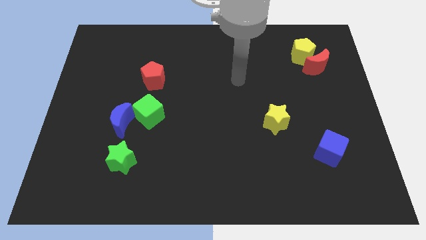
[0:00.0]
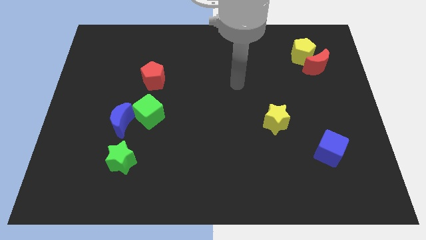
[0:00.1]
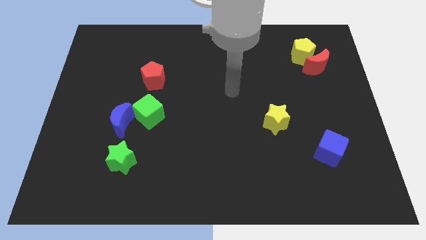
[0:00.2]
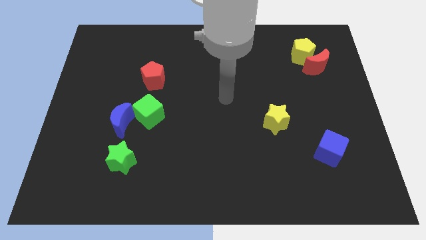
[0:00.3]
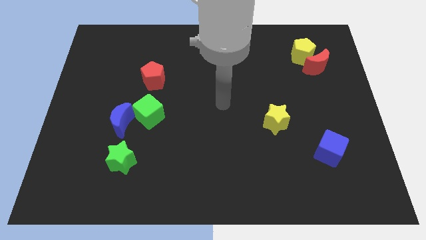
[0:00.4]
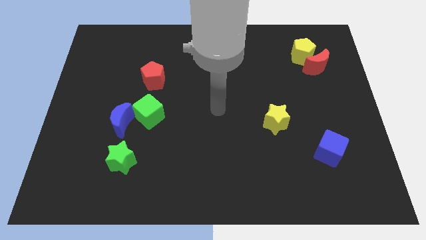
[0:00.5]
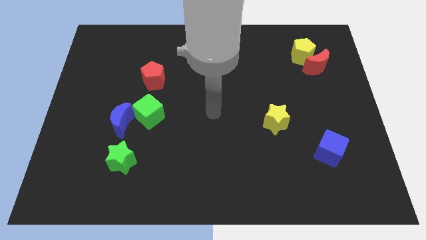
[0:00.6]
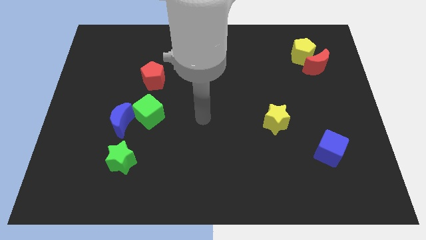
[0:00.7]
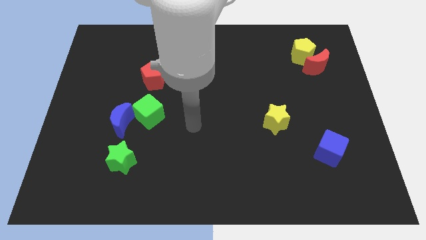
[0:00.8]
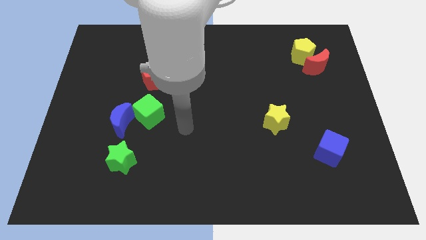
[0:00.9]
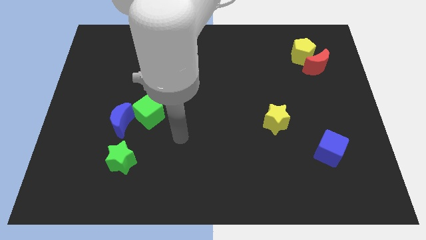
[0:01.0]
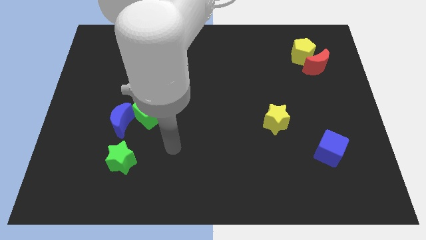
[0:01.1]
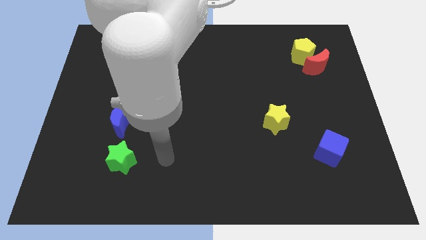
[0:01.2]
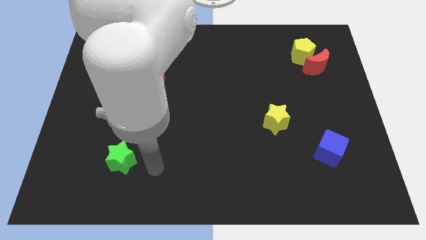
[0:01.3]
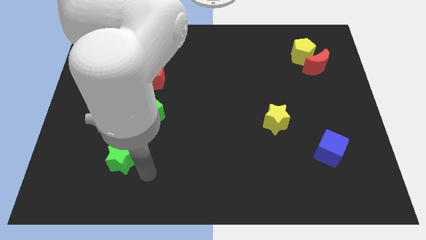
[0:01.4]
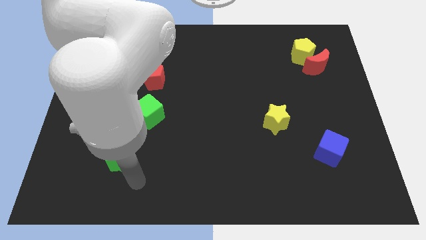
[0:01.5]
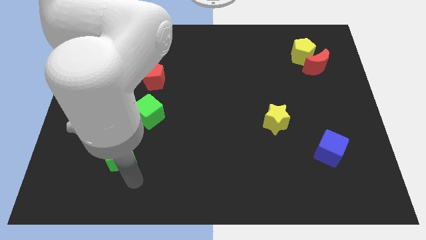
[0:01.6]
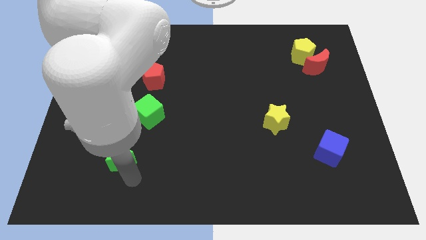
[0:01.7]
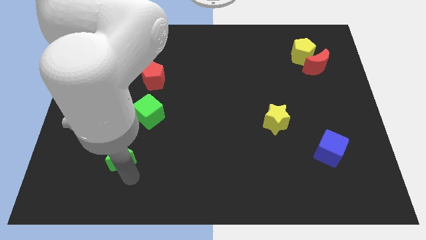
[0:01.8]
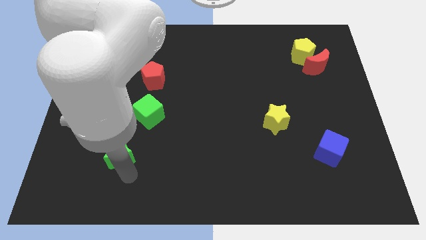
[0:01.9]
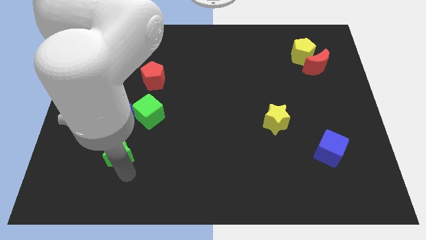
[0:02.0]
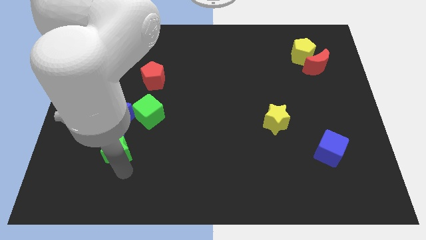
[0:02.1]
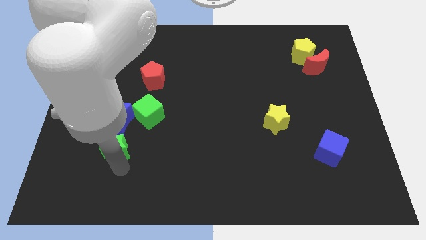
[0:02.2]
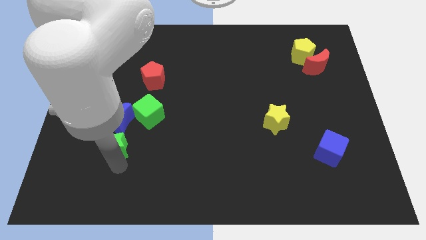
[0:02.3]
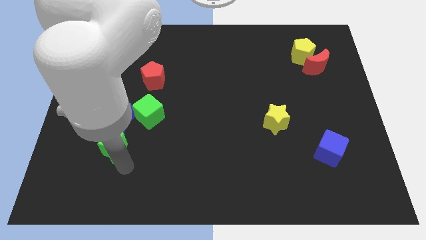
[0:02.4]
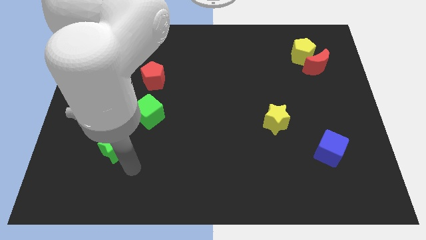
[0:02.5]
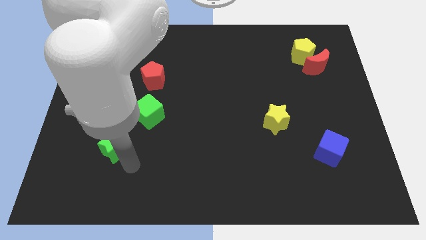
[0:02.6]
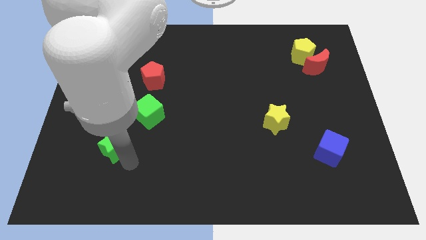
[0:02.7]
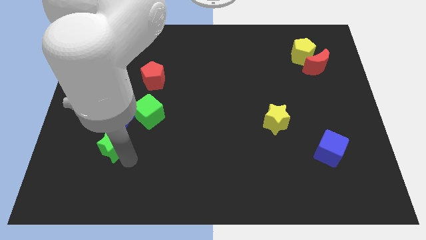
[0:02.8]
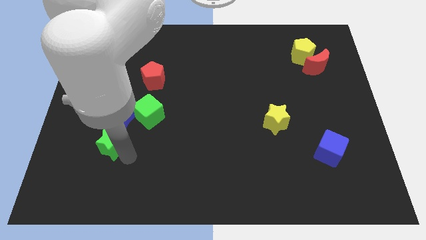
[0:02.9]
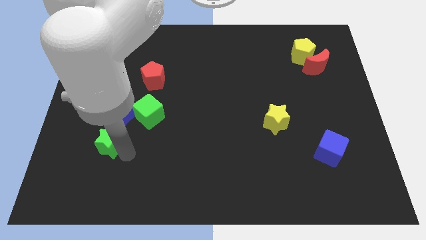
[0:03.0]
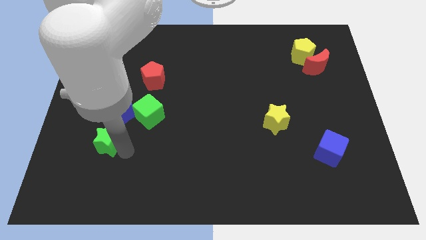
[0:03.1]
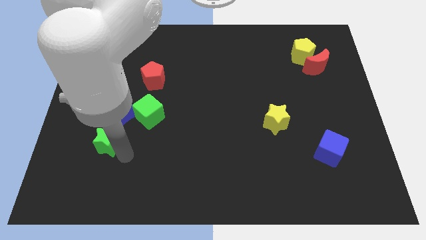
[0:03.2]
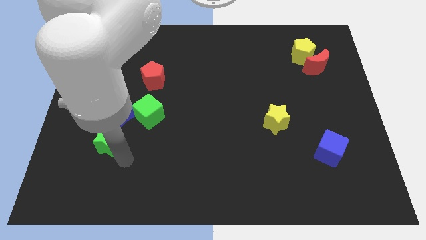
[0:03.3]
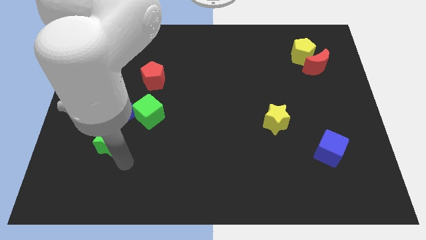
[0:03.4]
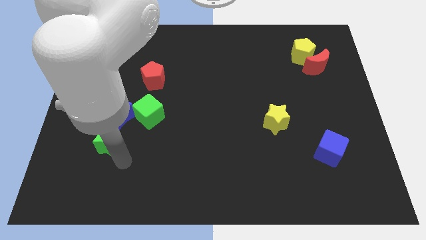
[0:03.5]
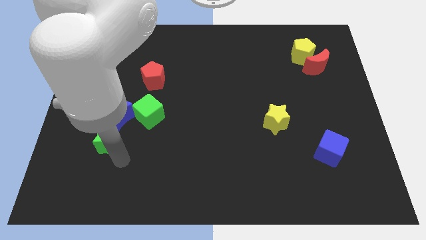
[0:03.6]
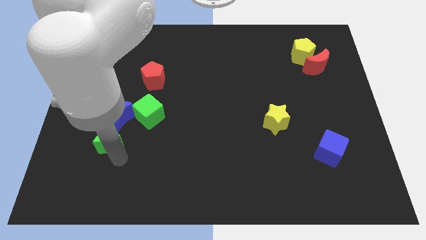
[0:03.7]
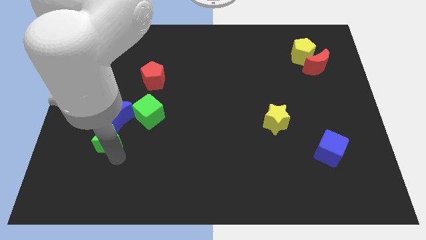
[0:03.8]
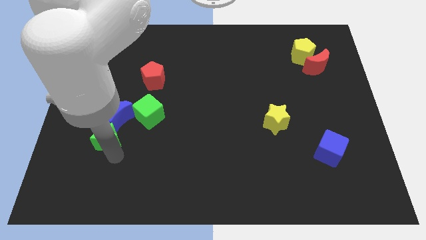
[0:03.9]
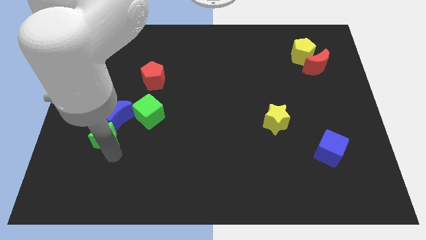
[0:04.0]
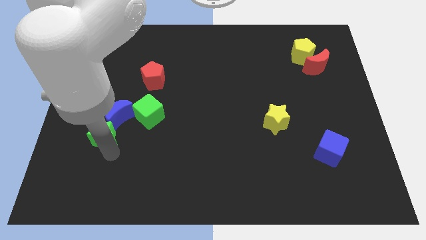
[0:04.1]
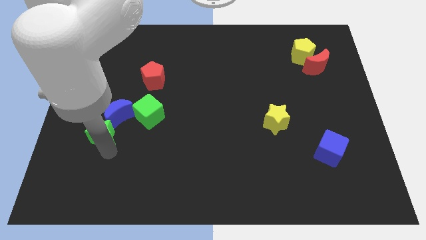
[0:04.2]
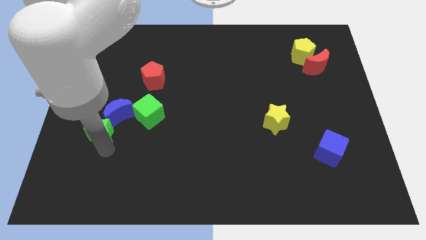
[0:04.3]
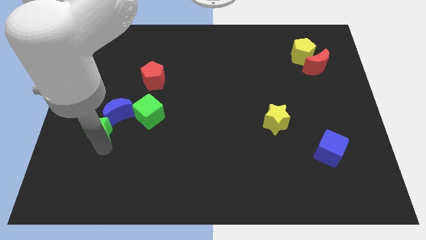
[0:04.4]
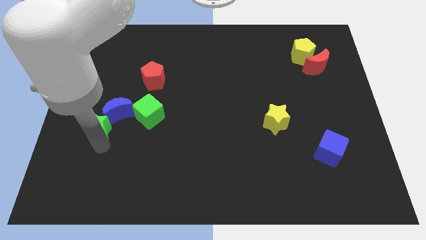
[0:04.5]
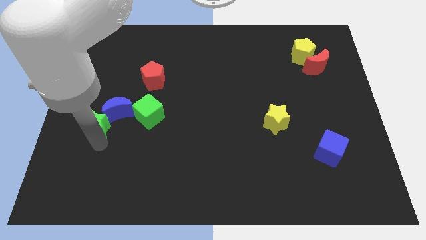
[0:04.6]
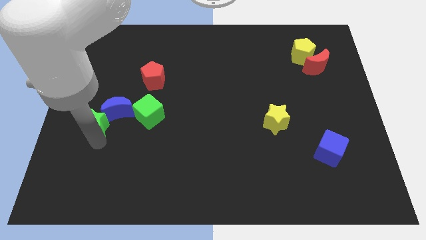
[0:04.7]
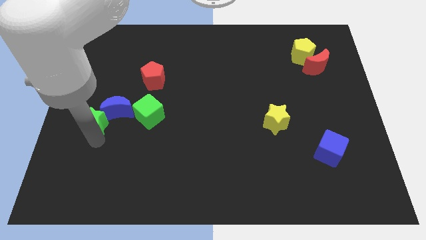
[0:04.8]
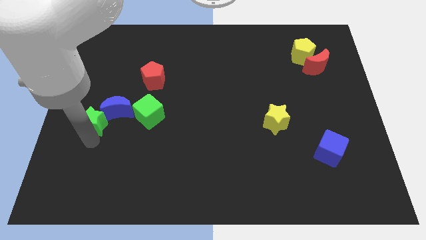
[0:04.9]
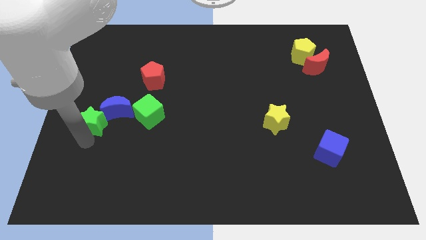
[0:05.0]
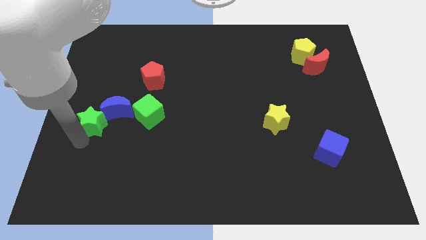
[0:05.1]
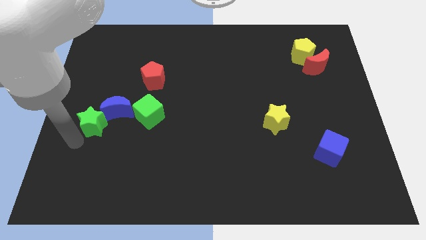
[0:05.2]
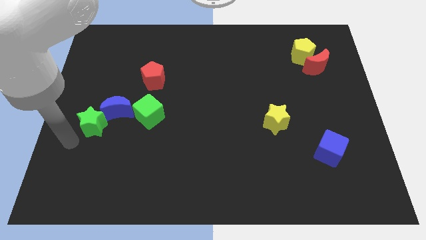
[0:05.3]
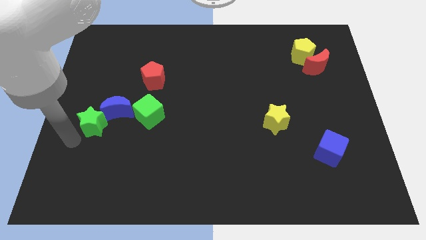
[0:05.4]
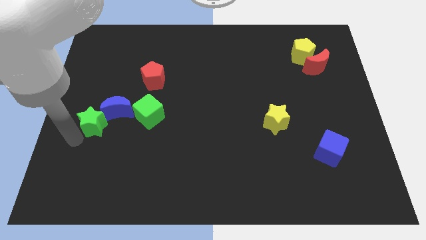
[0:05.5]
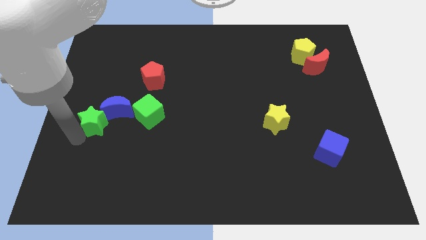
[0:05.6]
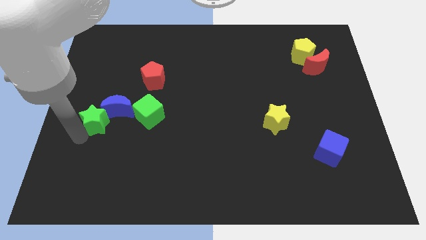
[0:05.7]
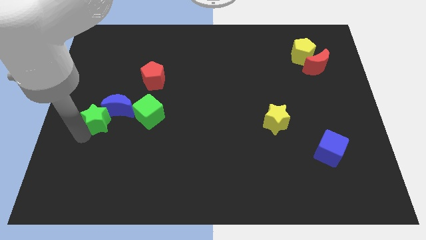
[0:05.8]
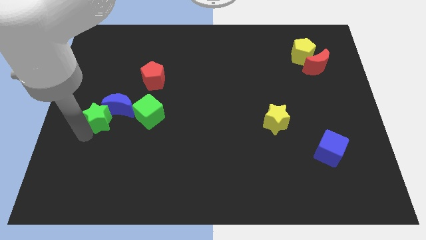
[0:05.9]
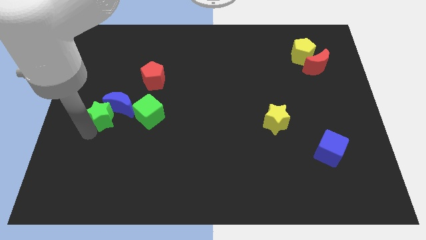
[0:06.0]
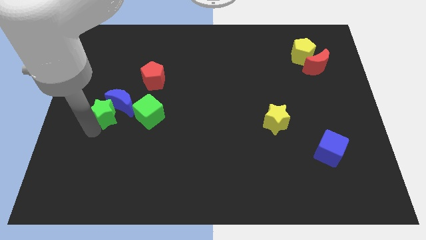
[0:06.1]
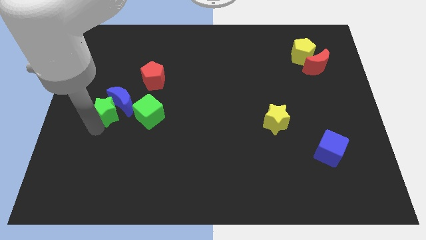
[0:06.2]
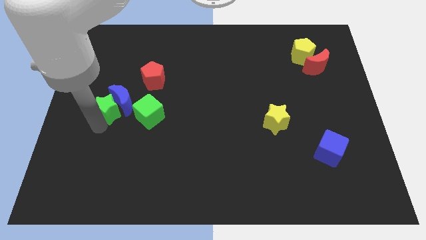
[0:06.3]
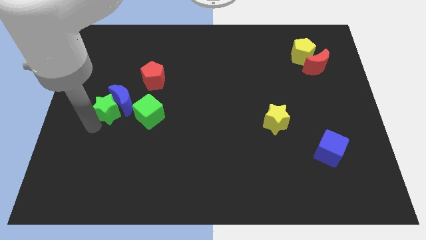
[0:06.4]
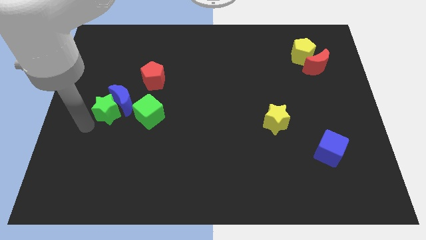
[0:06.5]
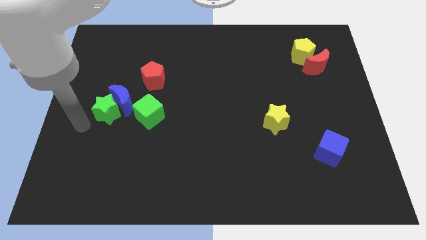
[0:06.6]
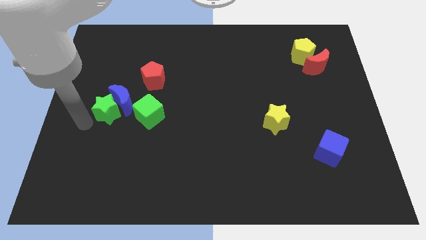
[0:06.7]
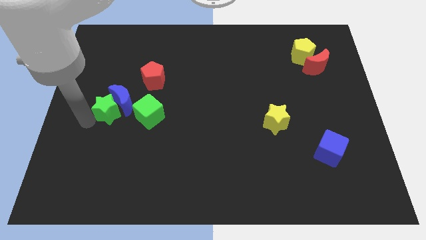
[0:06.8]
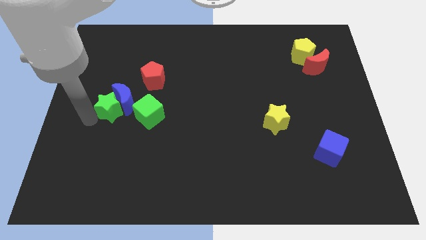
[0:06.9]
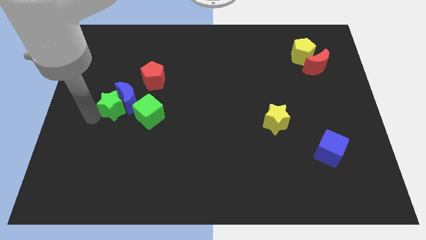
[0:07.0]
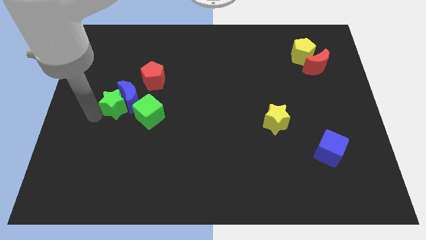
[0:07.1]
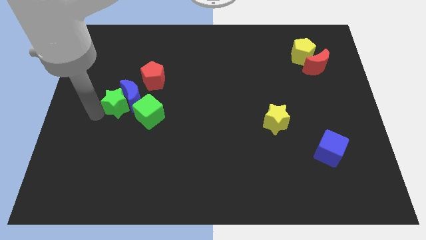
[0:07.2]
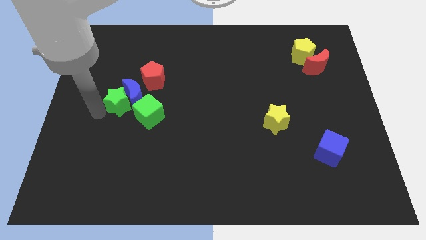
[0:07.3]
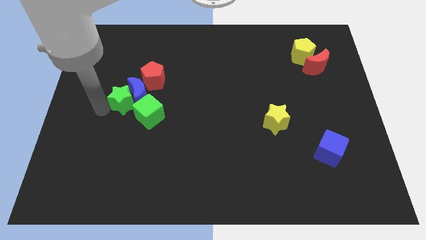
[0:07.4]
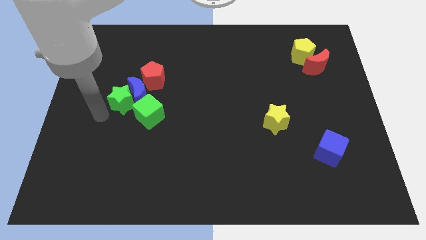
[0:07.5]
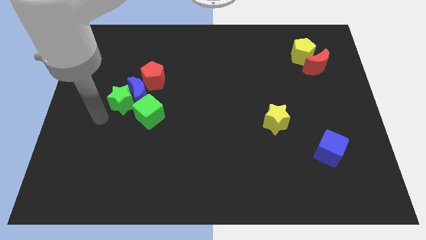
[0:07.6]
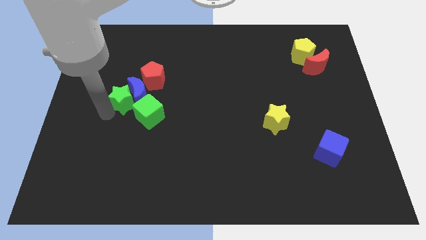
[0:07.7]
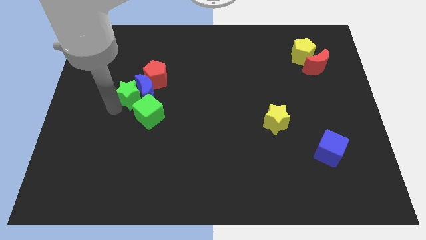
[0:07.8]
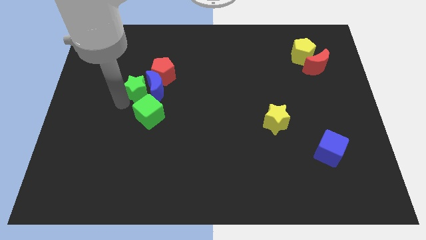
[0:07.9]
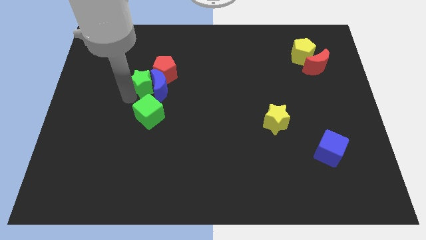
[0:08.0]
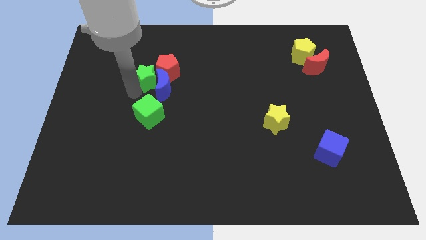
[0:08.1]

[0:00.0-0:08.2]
slide the green star close to the red pentagon
